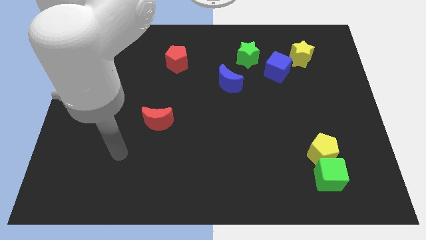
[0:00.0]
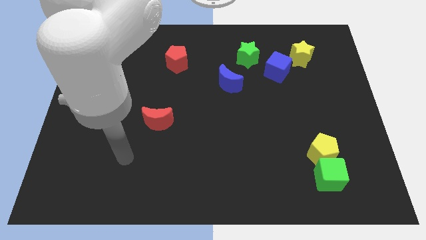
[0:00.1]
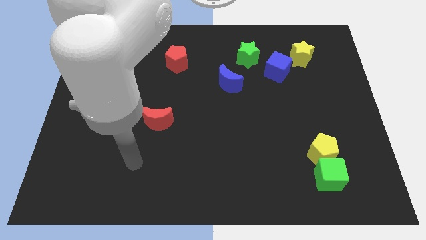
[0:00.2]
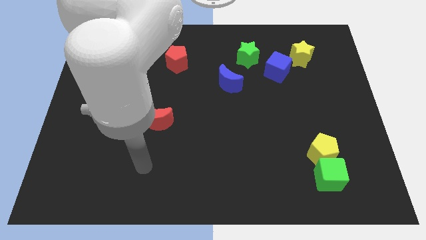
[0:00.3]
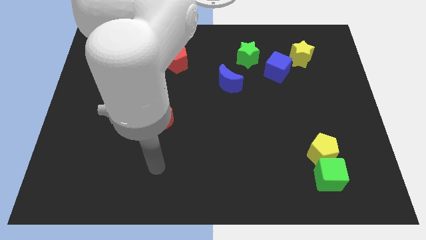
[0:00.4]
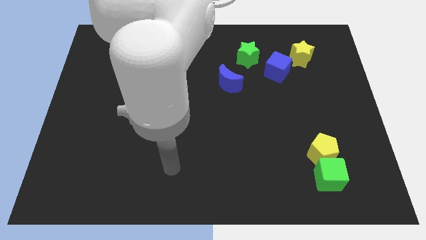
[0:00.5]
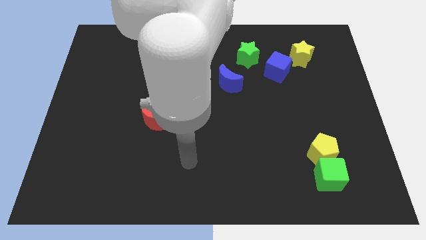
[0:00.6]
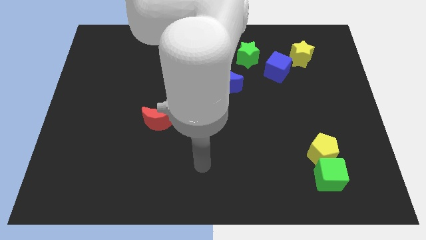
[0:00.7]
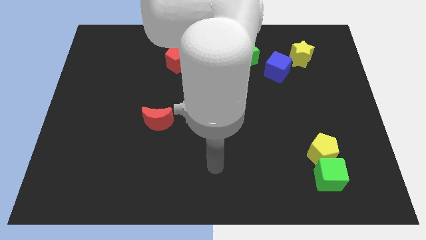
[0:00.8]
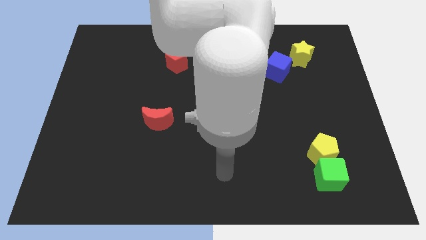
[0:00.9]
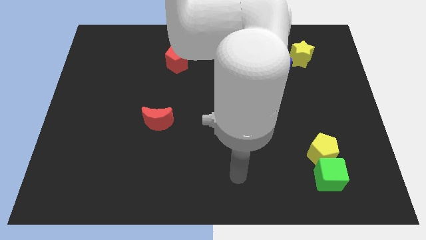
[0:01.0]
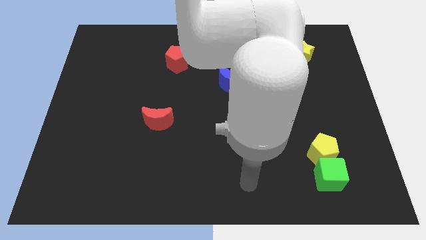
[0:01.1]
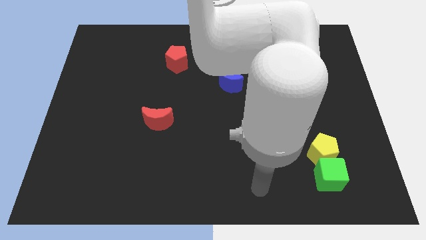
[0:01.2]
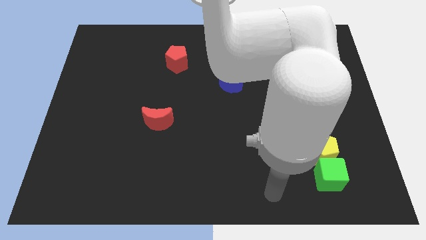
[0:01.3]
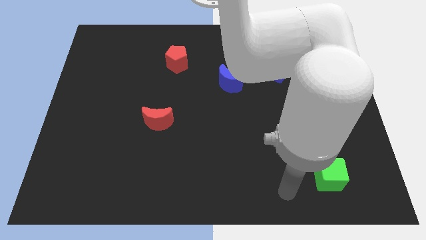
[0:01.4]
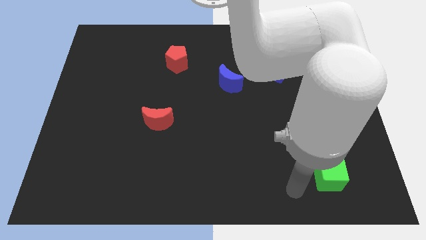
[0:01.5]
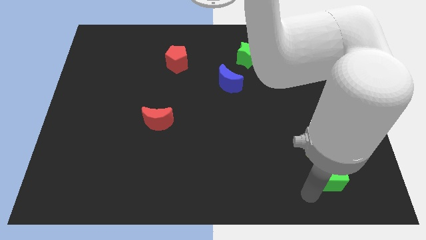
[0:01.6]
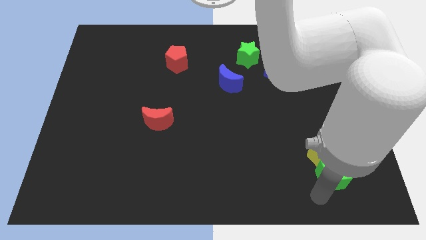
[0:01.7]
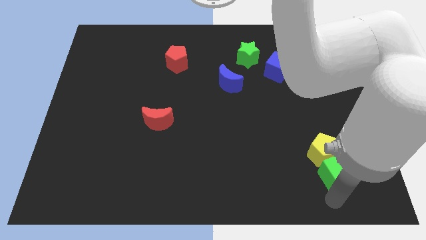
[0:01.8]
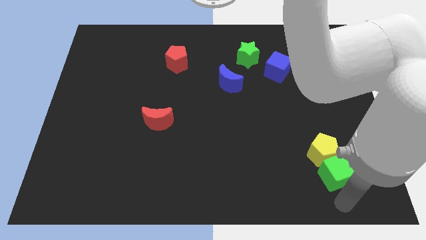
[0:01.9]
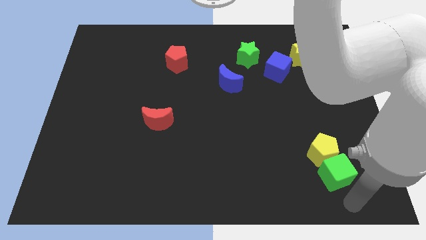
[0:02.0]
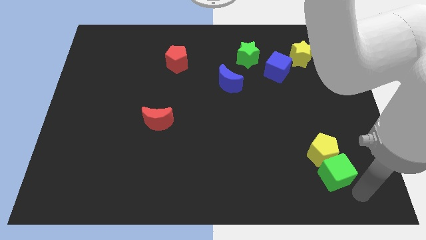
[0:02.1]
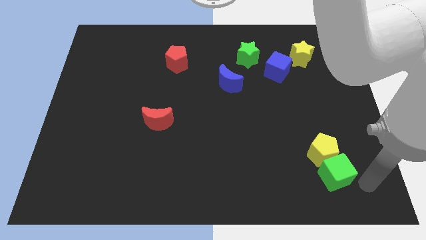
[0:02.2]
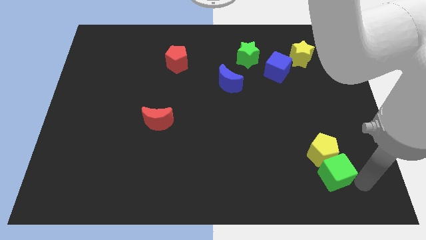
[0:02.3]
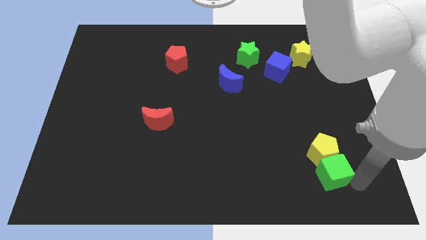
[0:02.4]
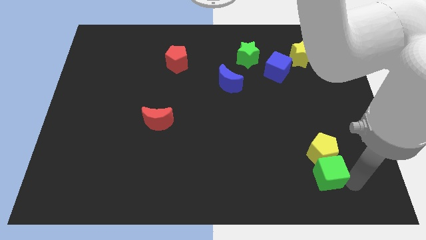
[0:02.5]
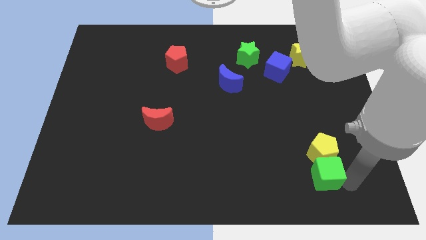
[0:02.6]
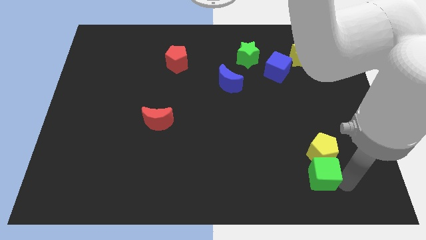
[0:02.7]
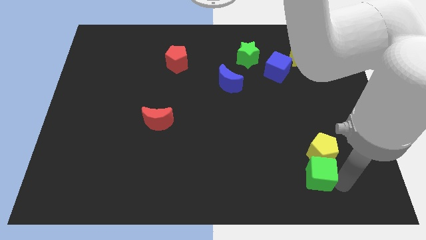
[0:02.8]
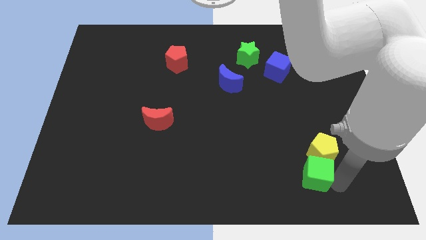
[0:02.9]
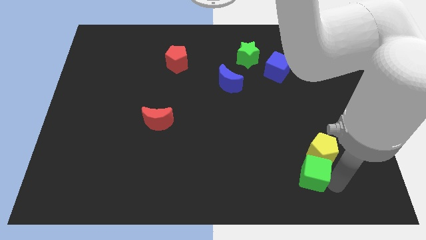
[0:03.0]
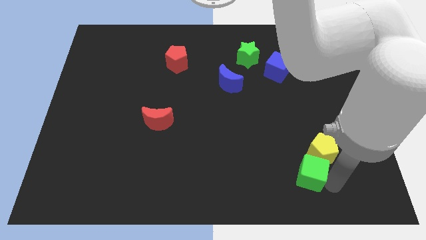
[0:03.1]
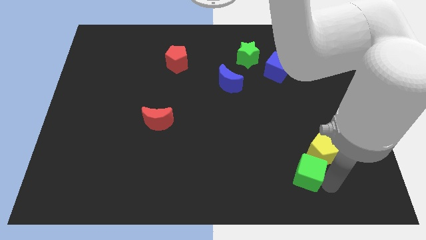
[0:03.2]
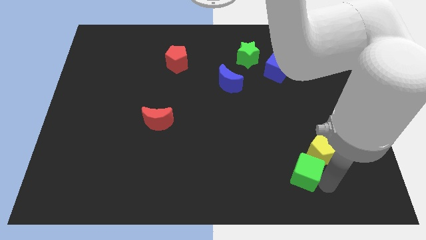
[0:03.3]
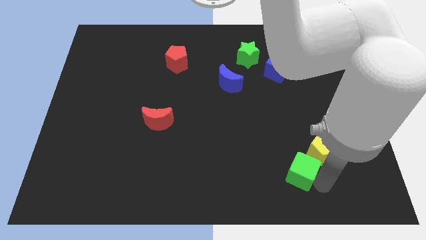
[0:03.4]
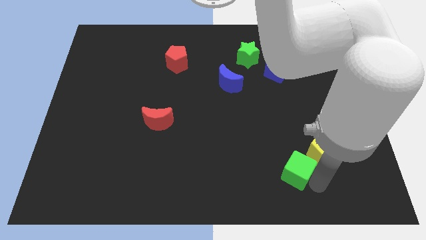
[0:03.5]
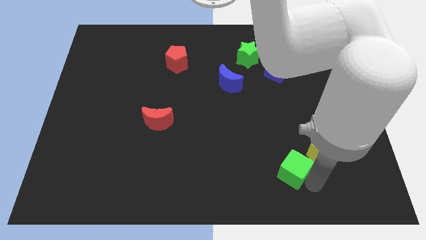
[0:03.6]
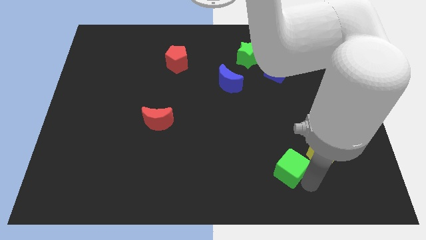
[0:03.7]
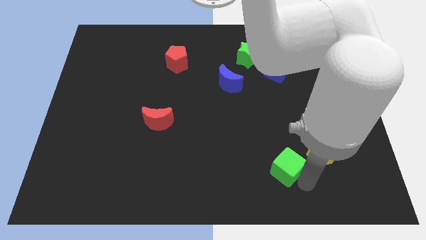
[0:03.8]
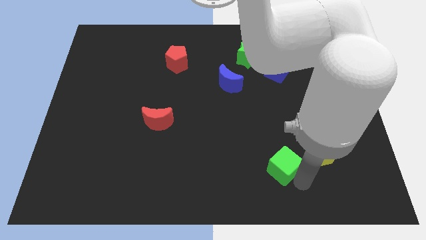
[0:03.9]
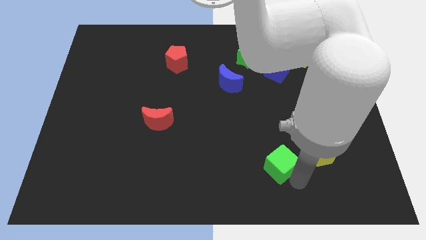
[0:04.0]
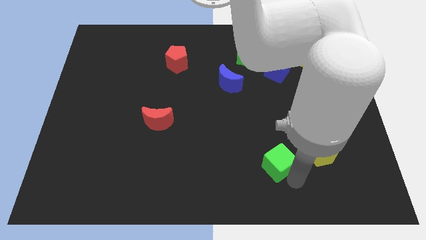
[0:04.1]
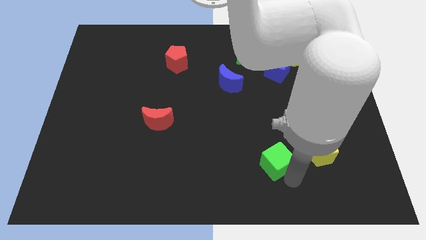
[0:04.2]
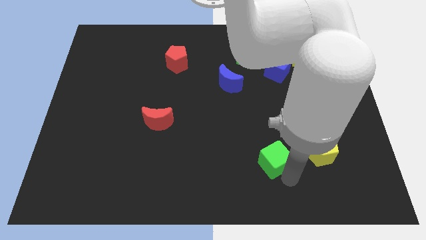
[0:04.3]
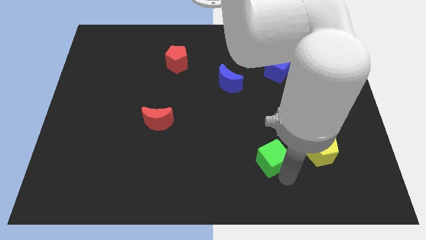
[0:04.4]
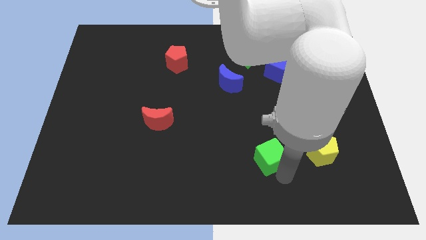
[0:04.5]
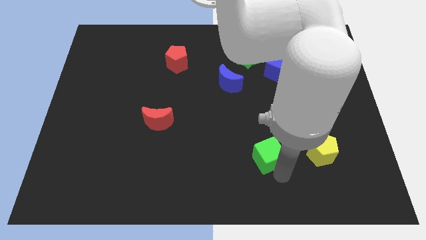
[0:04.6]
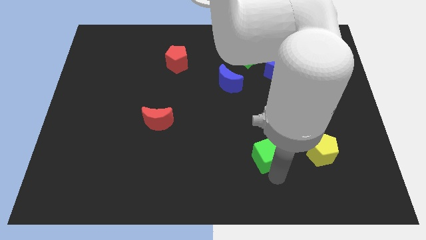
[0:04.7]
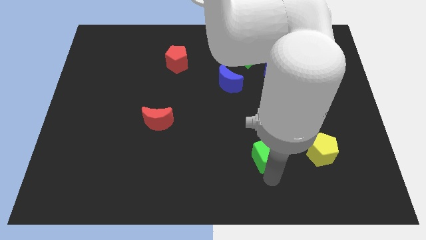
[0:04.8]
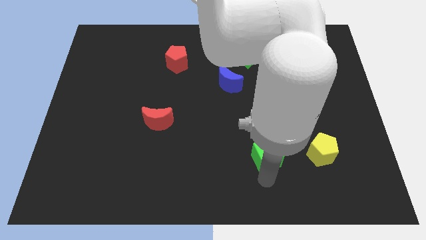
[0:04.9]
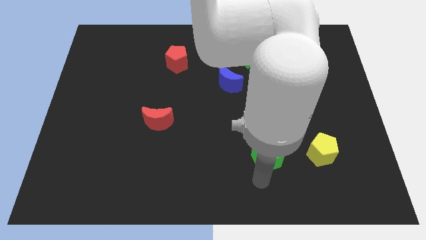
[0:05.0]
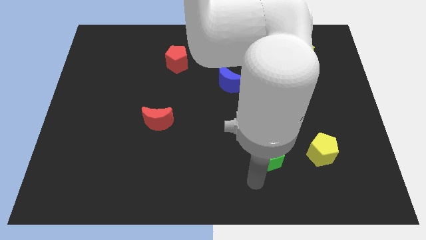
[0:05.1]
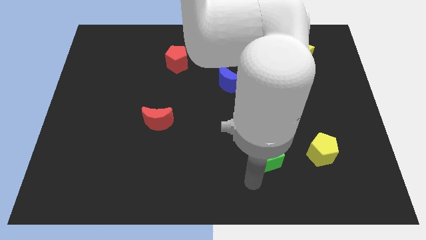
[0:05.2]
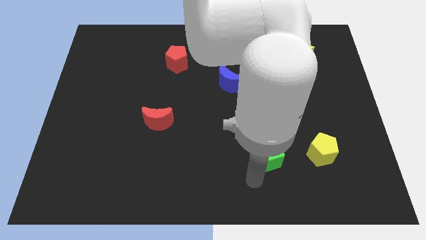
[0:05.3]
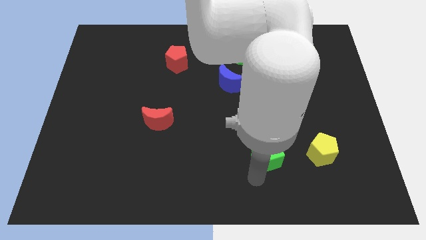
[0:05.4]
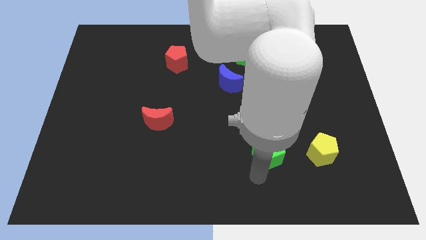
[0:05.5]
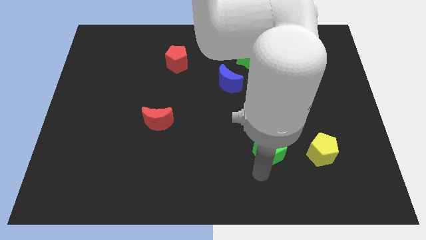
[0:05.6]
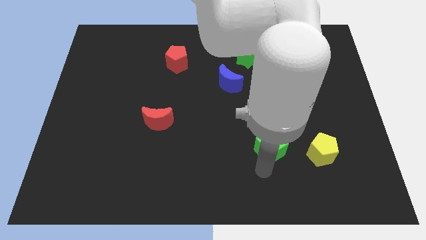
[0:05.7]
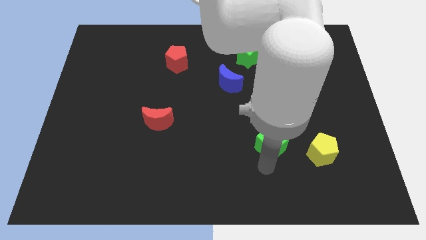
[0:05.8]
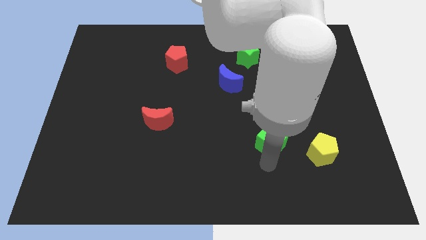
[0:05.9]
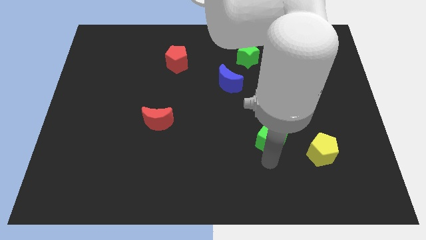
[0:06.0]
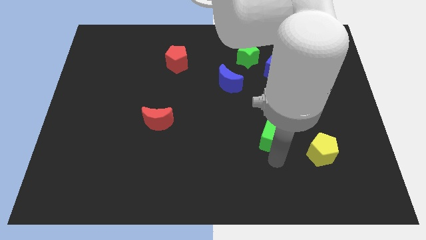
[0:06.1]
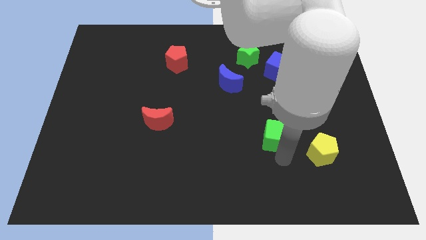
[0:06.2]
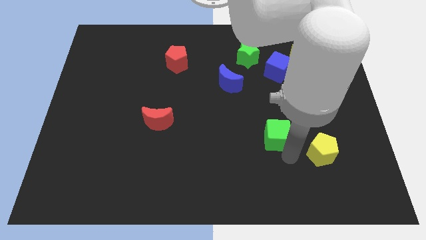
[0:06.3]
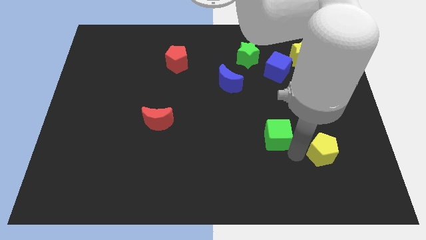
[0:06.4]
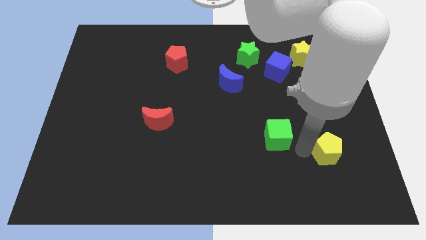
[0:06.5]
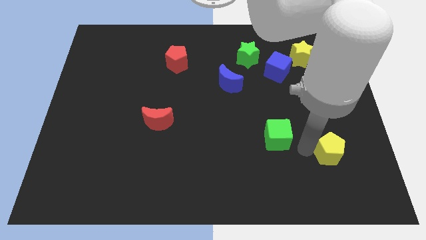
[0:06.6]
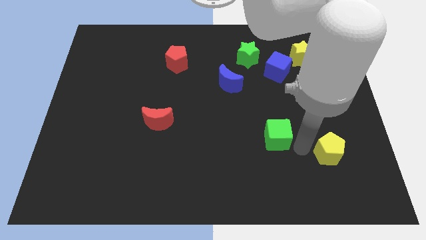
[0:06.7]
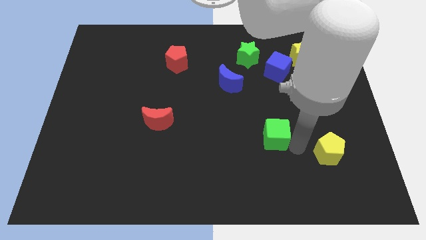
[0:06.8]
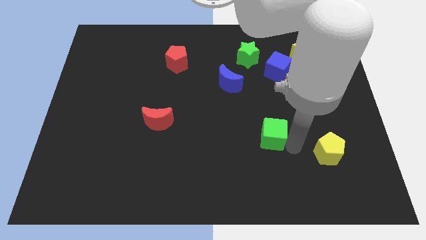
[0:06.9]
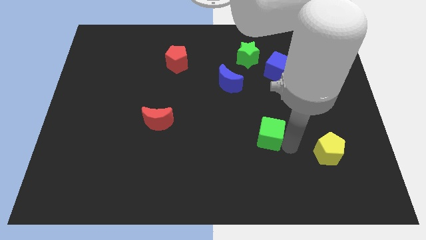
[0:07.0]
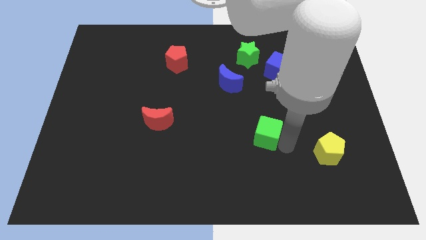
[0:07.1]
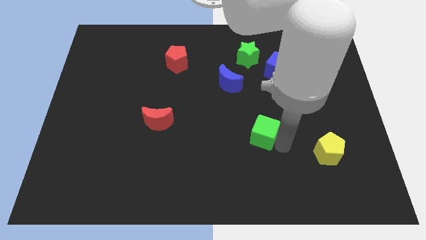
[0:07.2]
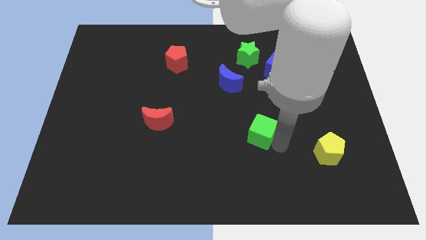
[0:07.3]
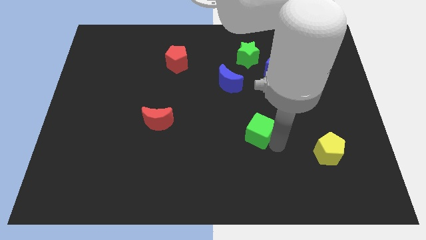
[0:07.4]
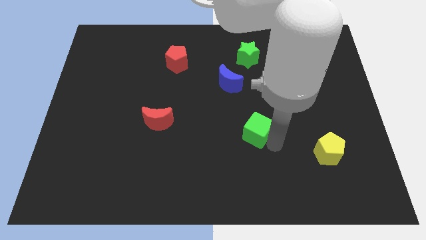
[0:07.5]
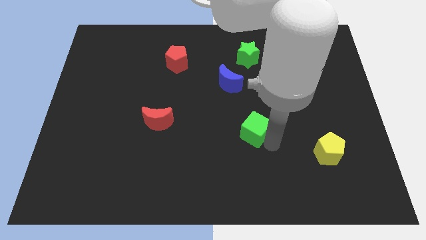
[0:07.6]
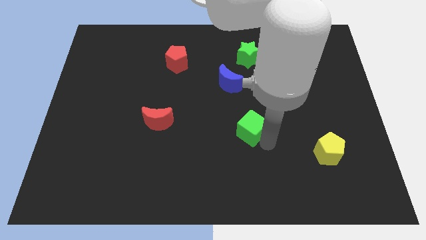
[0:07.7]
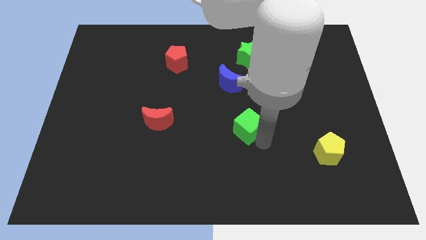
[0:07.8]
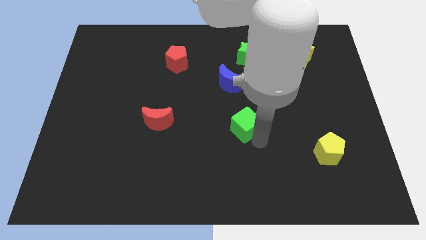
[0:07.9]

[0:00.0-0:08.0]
slide the green cube diagonally up and left

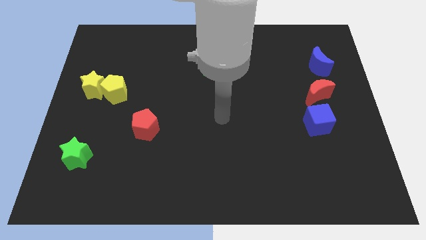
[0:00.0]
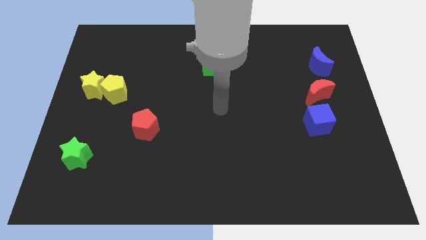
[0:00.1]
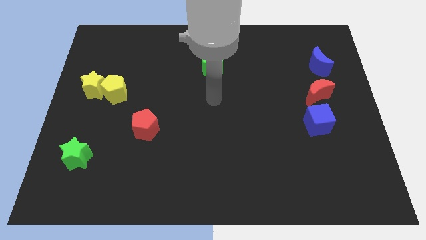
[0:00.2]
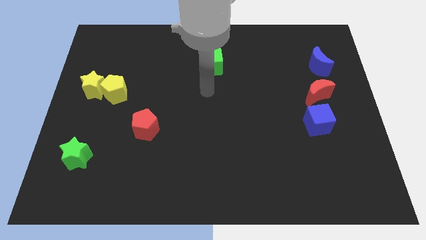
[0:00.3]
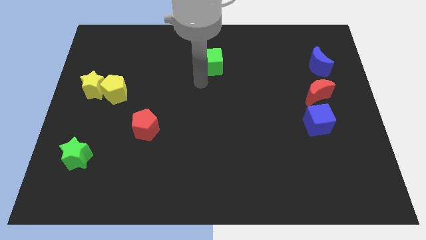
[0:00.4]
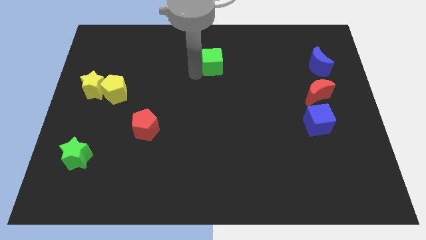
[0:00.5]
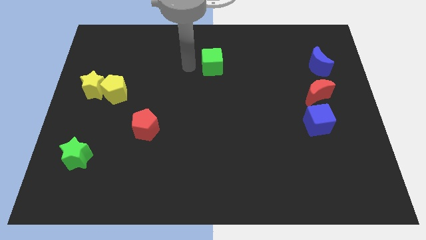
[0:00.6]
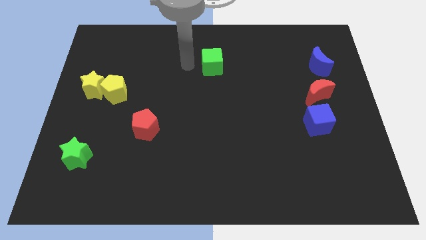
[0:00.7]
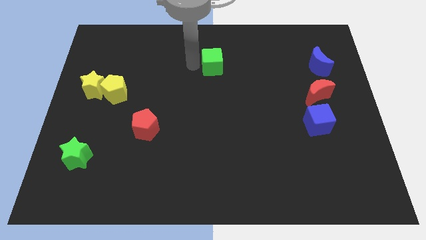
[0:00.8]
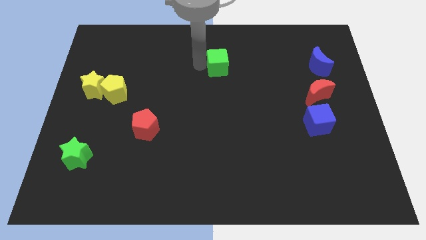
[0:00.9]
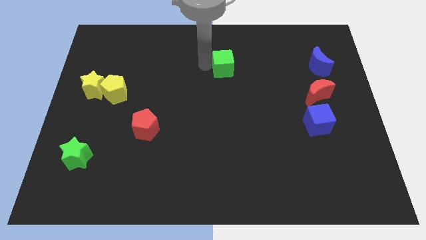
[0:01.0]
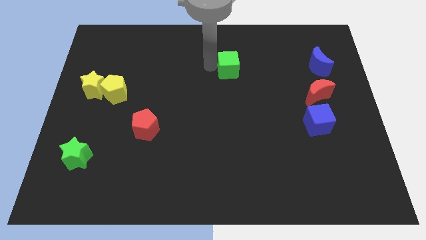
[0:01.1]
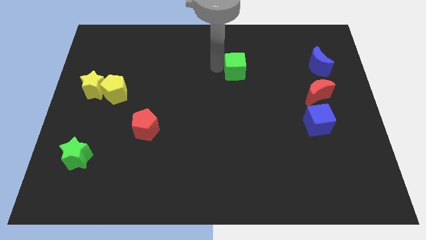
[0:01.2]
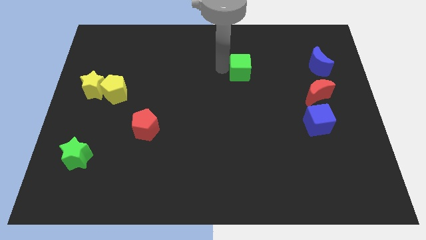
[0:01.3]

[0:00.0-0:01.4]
slightly slide the green cube right
